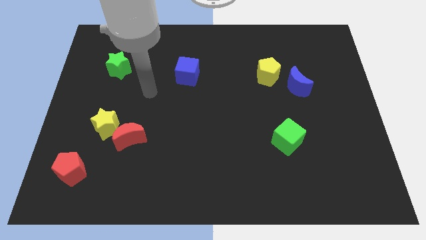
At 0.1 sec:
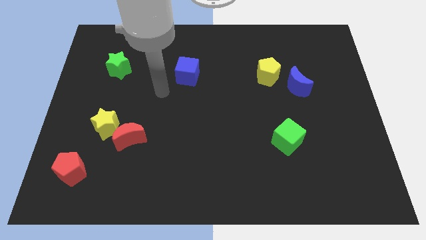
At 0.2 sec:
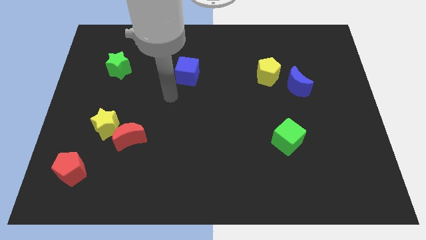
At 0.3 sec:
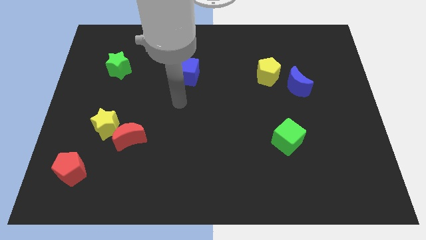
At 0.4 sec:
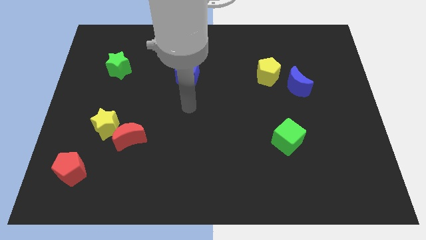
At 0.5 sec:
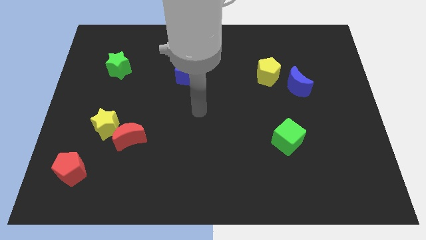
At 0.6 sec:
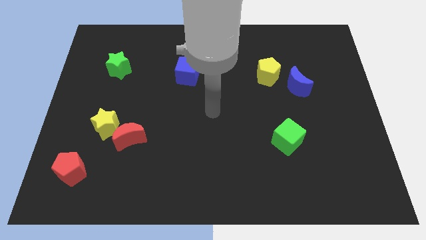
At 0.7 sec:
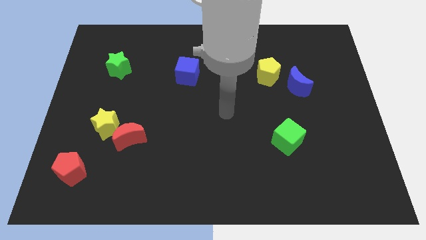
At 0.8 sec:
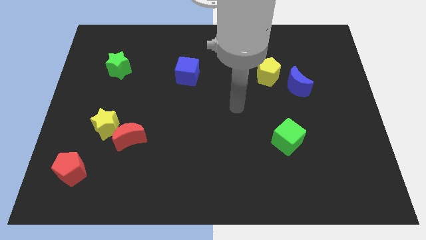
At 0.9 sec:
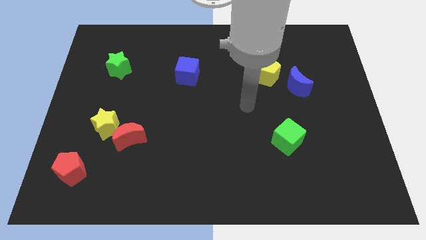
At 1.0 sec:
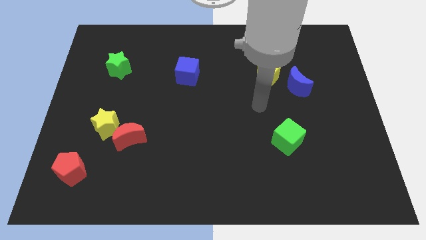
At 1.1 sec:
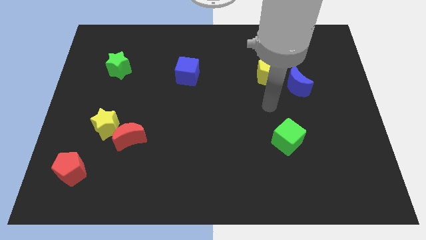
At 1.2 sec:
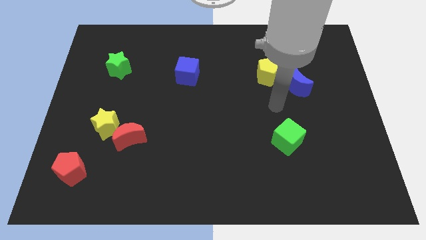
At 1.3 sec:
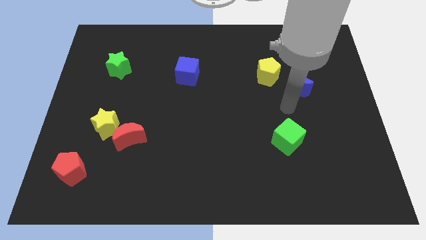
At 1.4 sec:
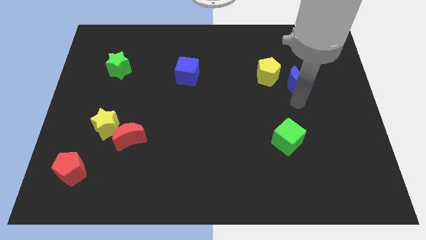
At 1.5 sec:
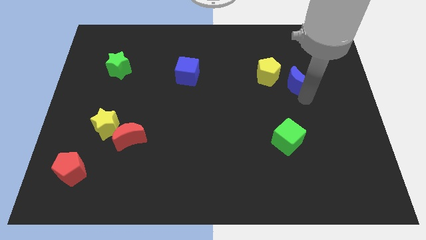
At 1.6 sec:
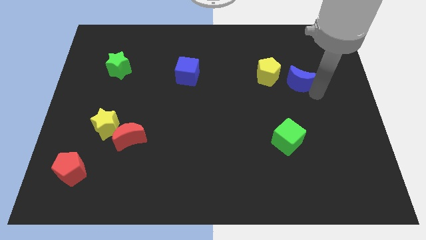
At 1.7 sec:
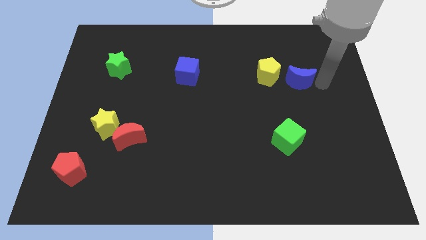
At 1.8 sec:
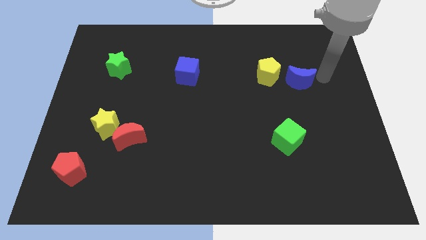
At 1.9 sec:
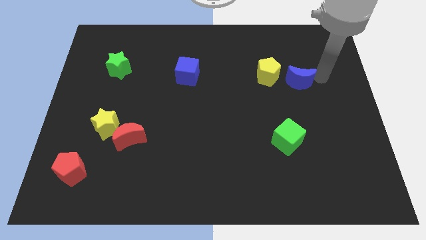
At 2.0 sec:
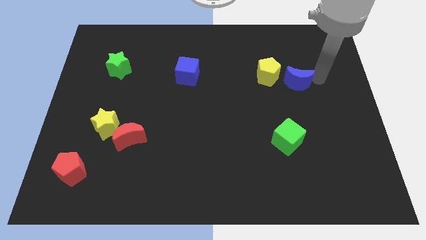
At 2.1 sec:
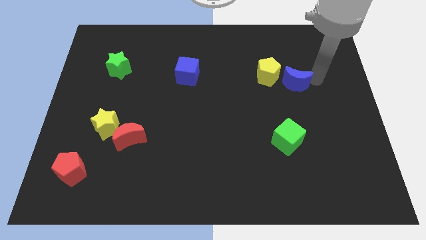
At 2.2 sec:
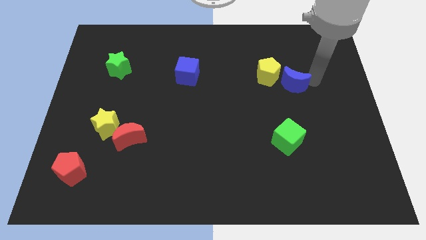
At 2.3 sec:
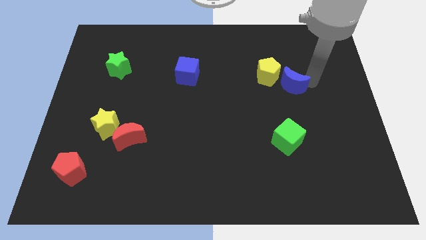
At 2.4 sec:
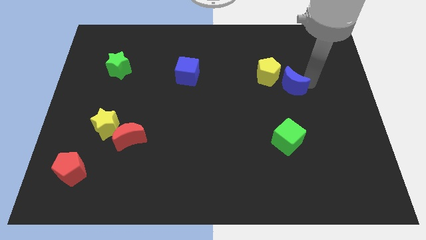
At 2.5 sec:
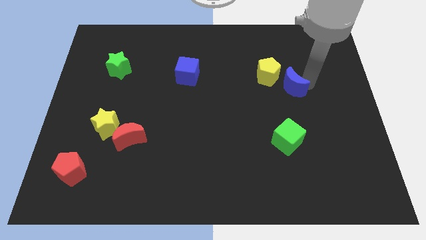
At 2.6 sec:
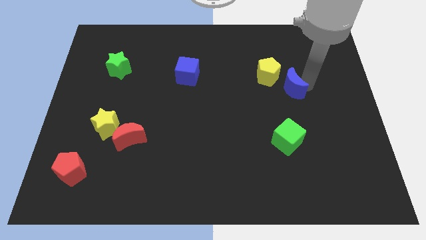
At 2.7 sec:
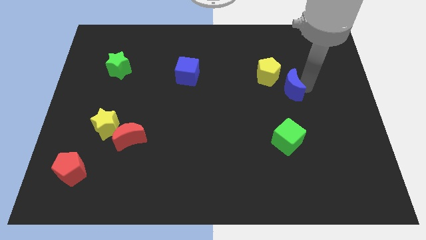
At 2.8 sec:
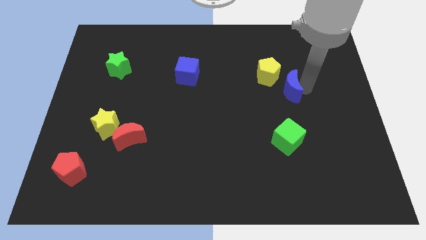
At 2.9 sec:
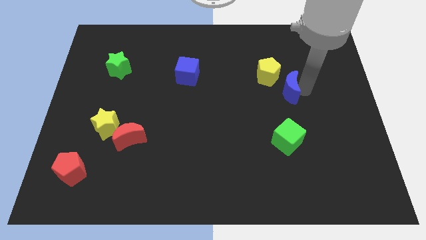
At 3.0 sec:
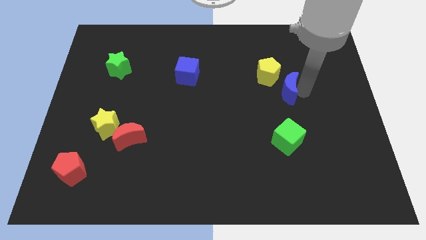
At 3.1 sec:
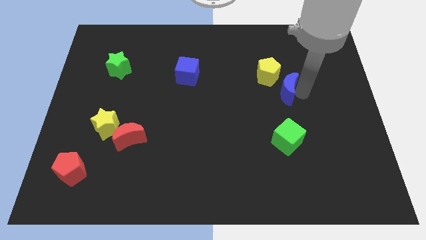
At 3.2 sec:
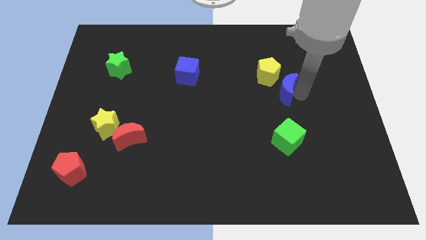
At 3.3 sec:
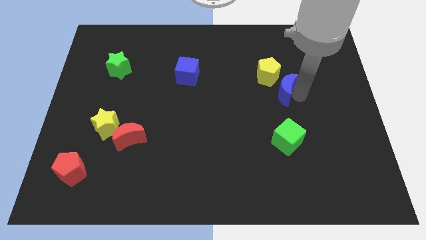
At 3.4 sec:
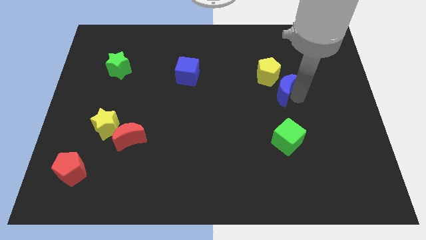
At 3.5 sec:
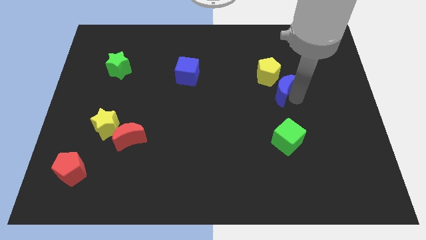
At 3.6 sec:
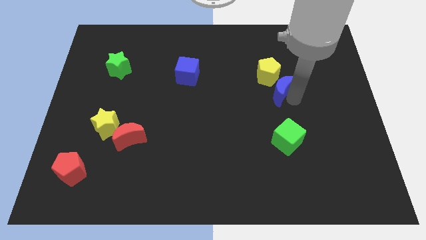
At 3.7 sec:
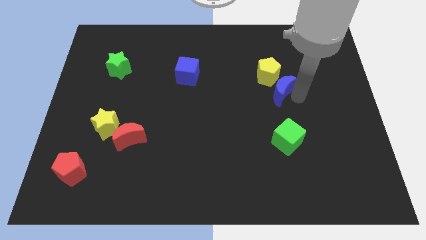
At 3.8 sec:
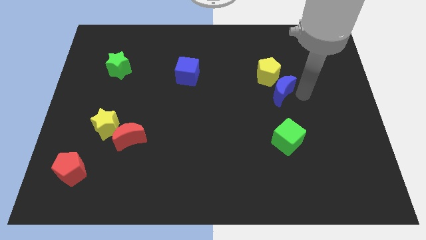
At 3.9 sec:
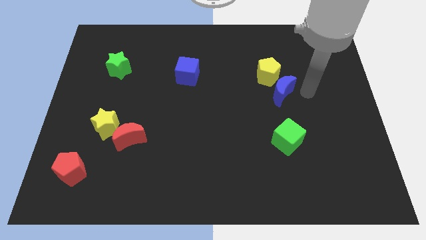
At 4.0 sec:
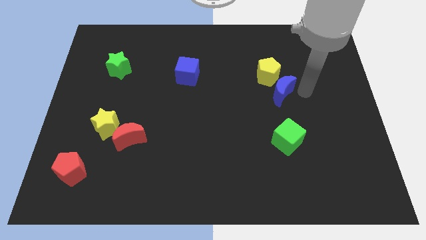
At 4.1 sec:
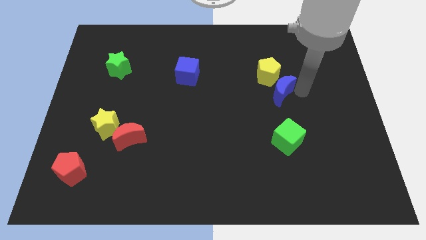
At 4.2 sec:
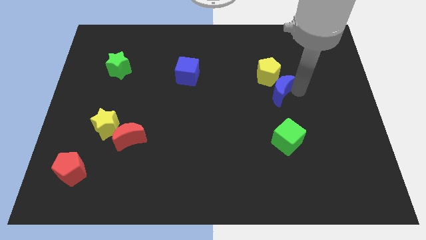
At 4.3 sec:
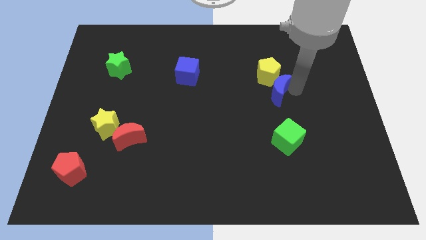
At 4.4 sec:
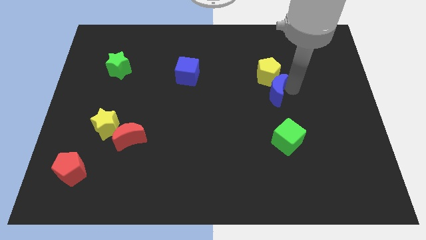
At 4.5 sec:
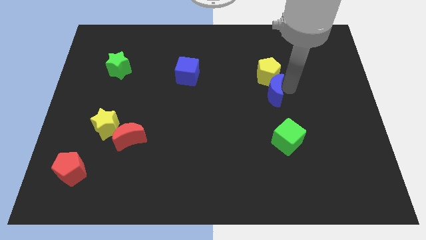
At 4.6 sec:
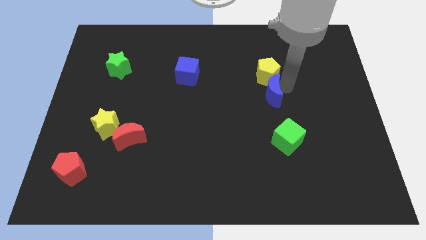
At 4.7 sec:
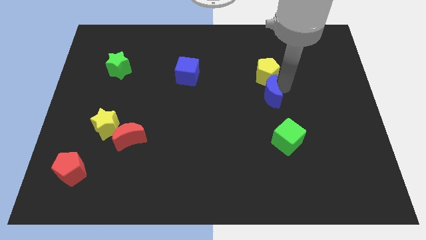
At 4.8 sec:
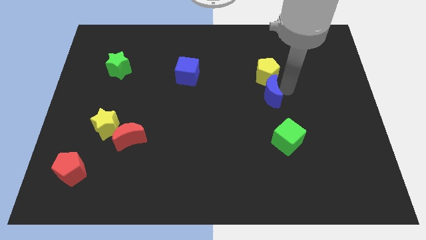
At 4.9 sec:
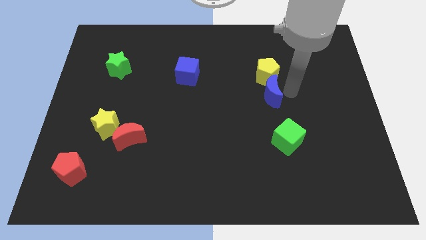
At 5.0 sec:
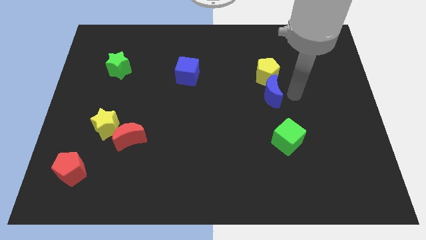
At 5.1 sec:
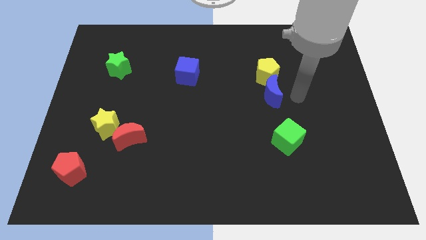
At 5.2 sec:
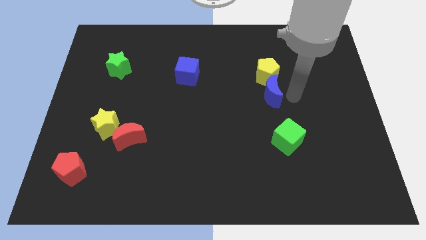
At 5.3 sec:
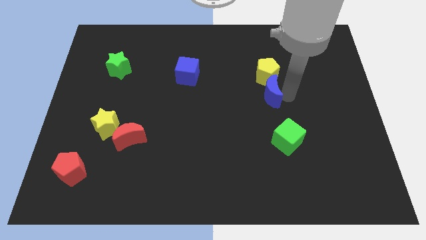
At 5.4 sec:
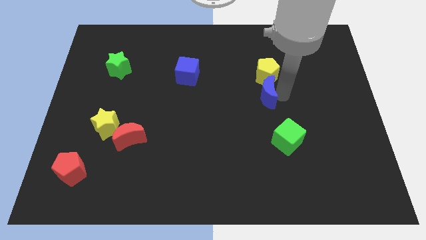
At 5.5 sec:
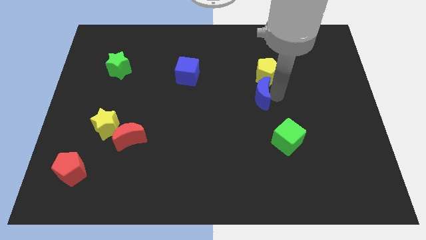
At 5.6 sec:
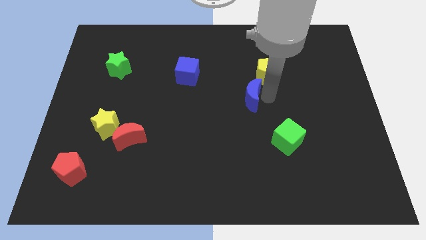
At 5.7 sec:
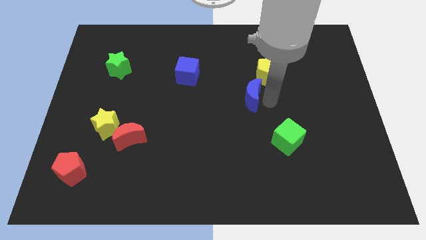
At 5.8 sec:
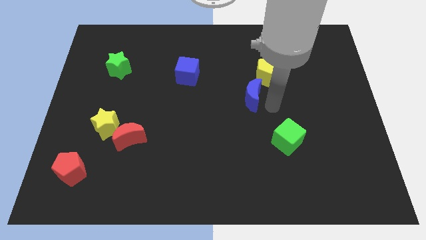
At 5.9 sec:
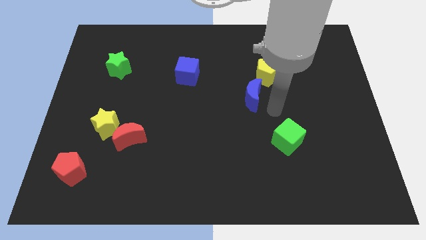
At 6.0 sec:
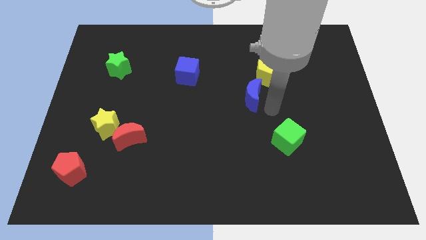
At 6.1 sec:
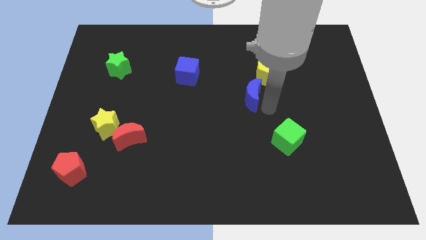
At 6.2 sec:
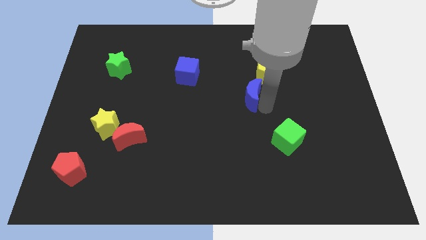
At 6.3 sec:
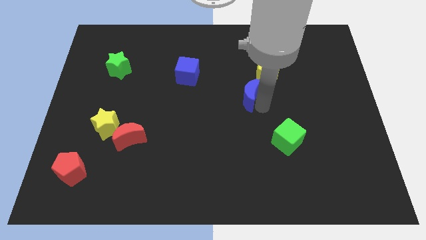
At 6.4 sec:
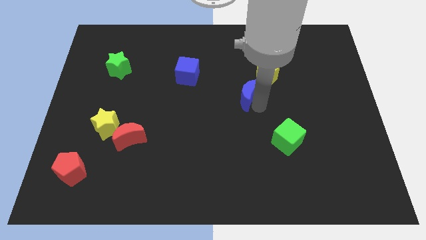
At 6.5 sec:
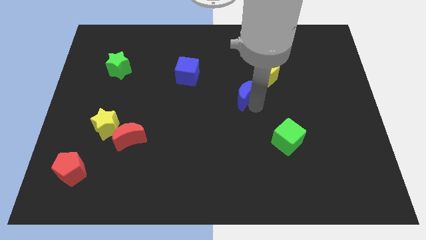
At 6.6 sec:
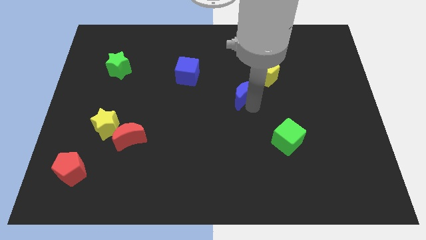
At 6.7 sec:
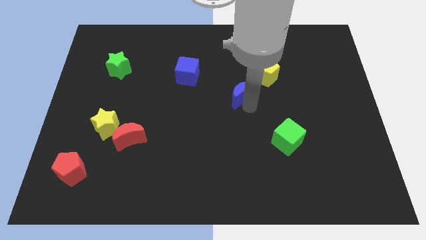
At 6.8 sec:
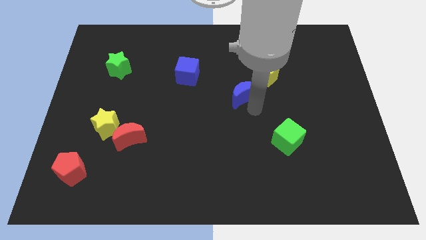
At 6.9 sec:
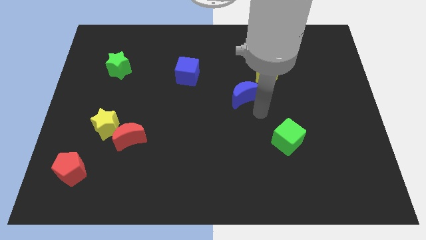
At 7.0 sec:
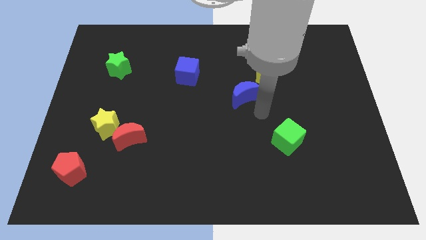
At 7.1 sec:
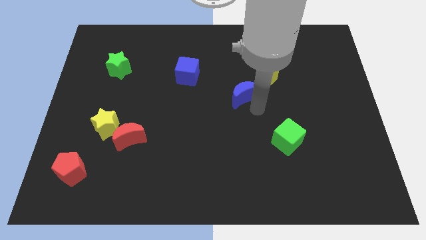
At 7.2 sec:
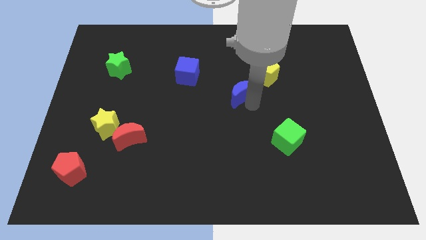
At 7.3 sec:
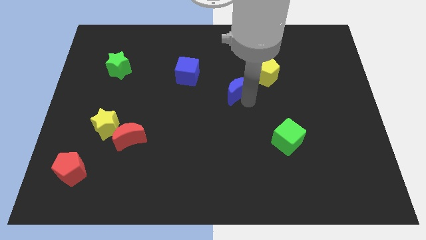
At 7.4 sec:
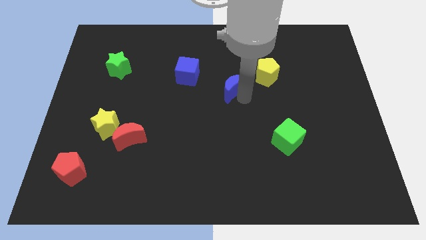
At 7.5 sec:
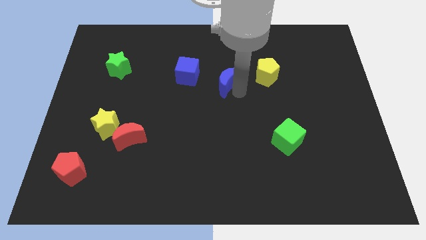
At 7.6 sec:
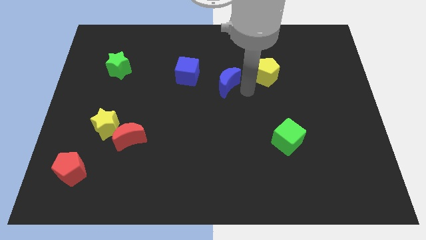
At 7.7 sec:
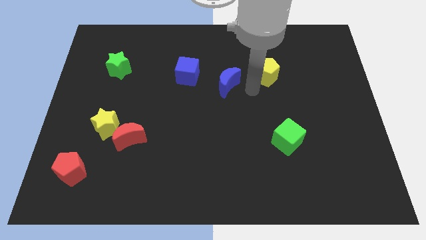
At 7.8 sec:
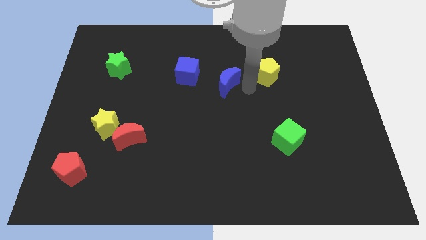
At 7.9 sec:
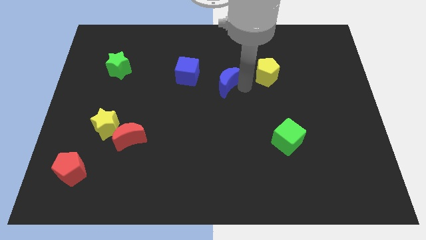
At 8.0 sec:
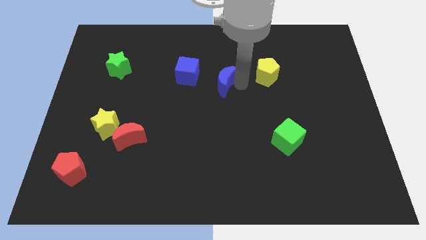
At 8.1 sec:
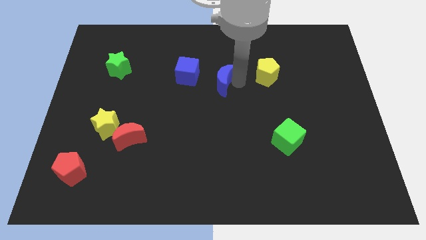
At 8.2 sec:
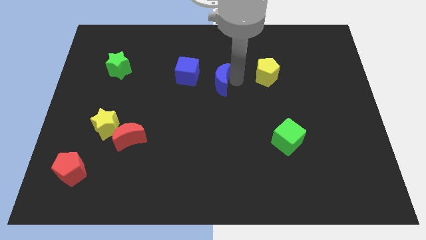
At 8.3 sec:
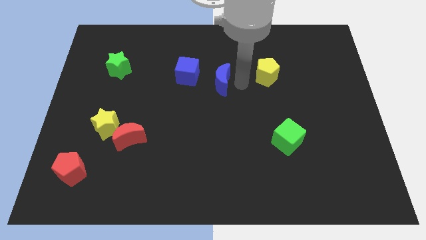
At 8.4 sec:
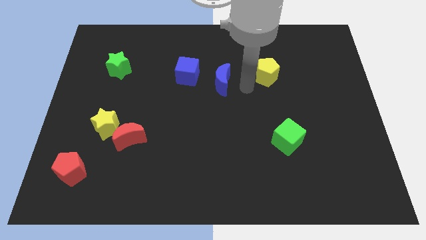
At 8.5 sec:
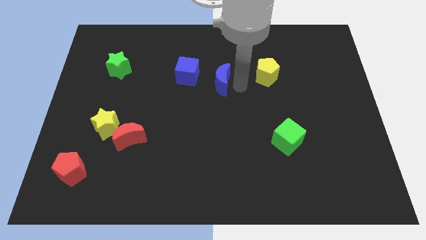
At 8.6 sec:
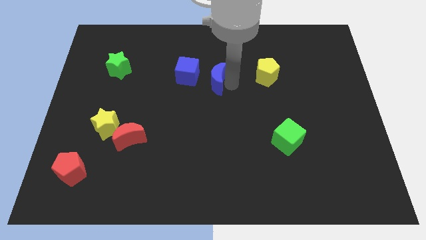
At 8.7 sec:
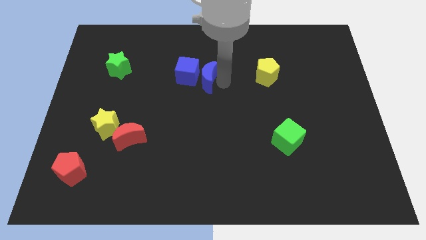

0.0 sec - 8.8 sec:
put the blue moon to the blue cube
